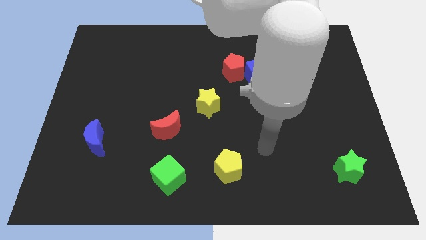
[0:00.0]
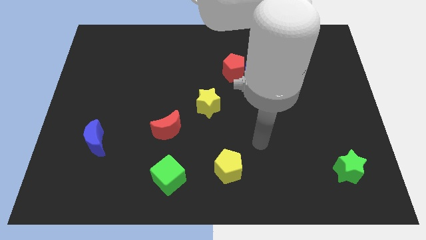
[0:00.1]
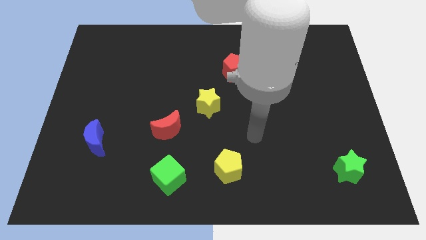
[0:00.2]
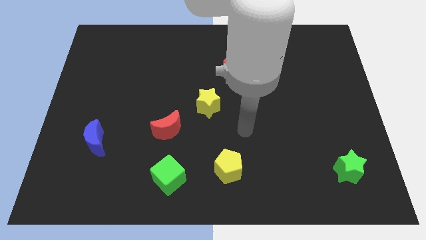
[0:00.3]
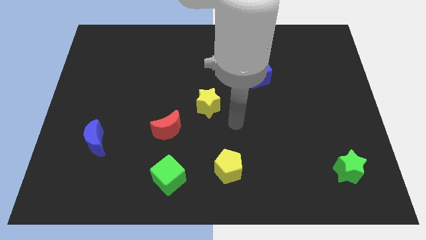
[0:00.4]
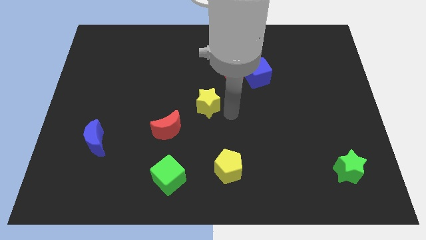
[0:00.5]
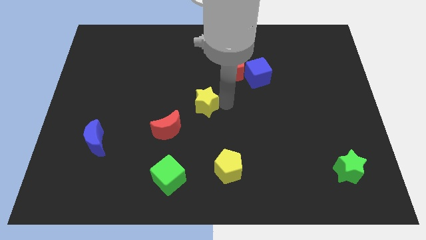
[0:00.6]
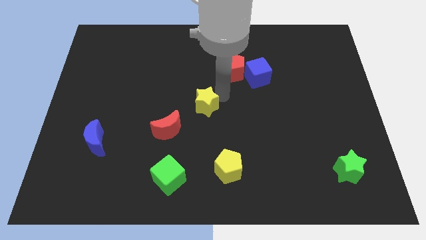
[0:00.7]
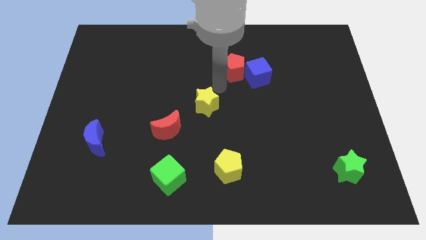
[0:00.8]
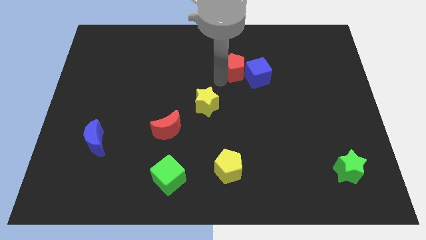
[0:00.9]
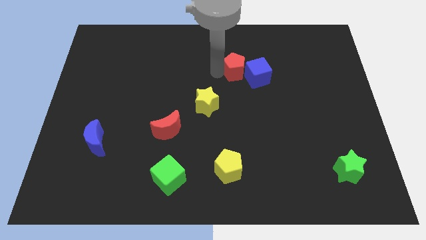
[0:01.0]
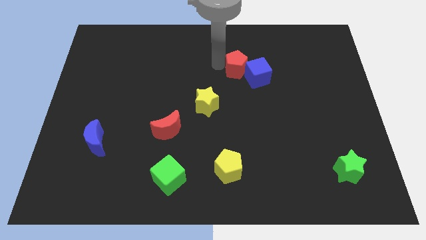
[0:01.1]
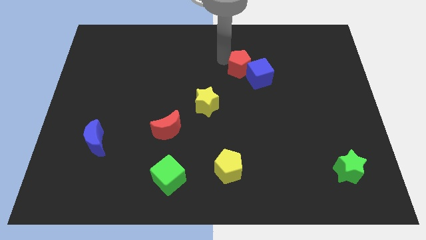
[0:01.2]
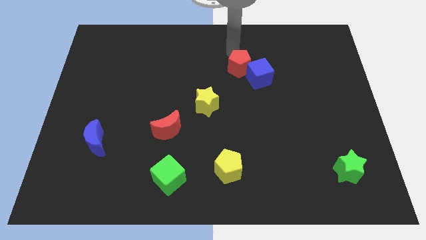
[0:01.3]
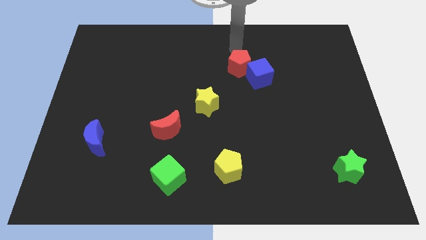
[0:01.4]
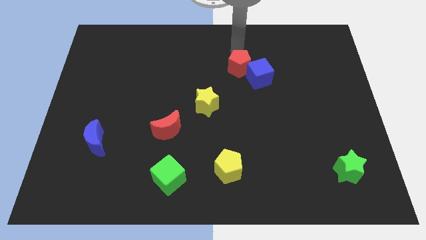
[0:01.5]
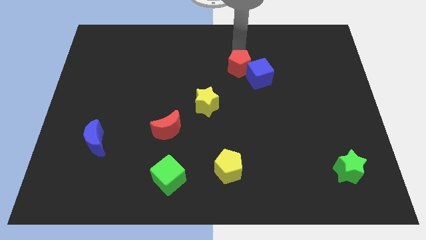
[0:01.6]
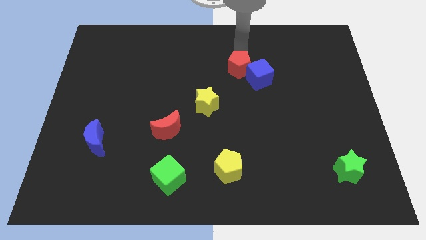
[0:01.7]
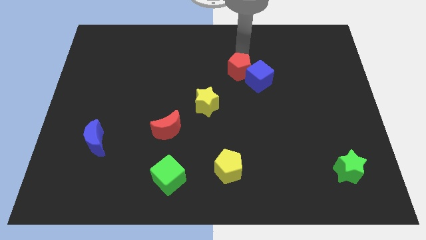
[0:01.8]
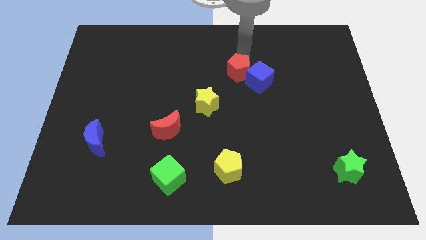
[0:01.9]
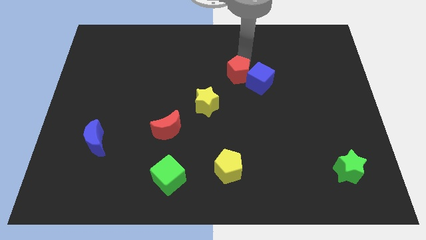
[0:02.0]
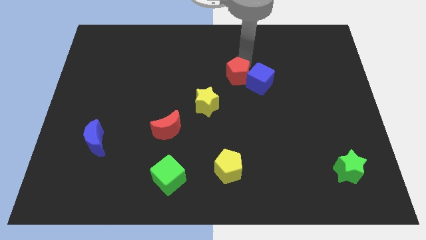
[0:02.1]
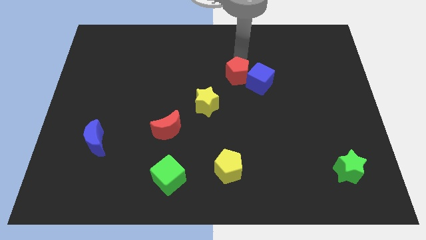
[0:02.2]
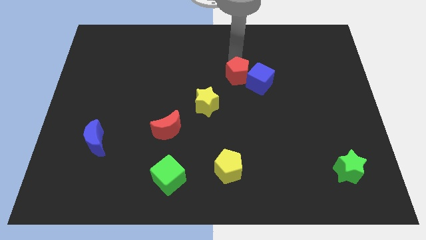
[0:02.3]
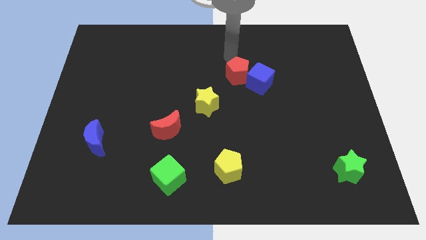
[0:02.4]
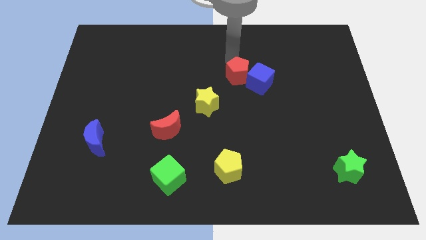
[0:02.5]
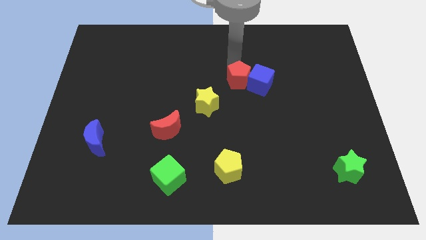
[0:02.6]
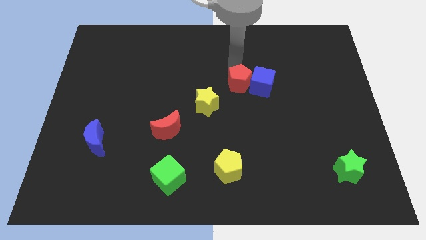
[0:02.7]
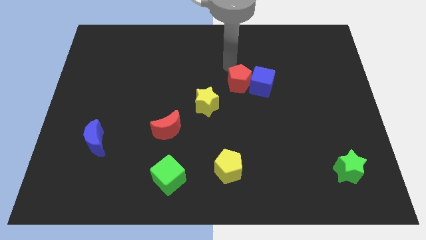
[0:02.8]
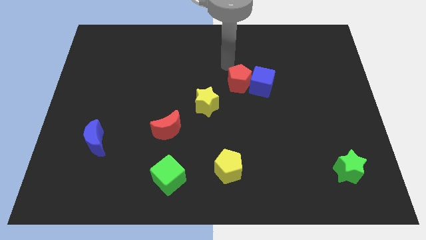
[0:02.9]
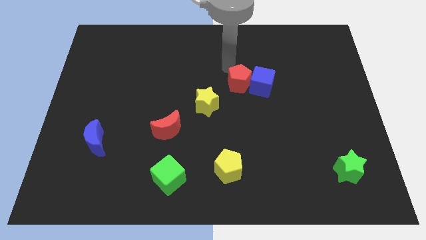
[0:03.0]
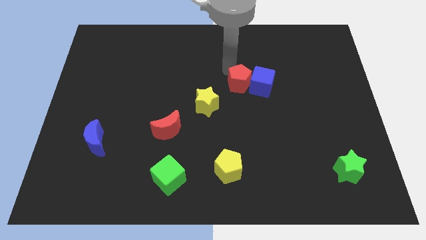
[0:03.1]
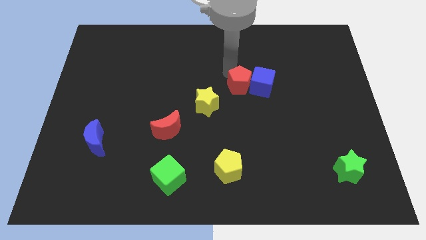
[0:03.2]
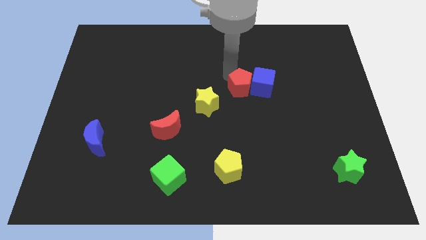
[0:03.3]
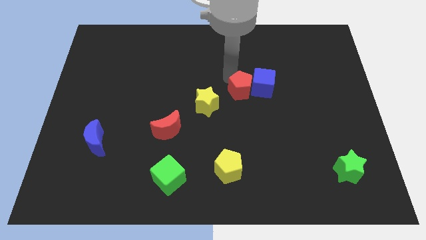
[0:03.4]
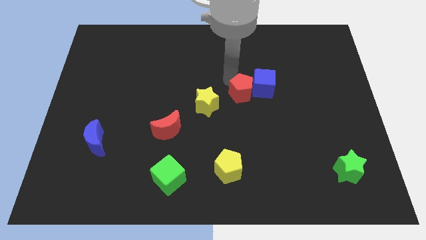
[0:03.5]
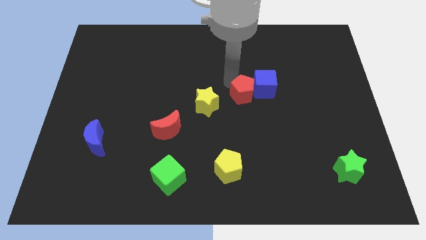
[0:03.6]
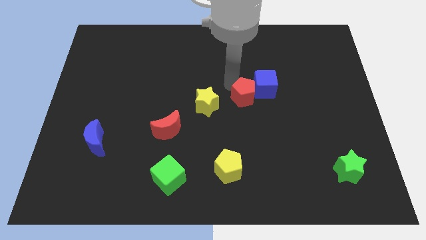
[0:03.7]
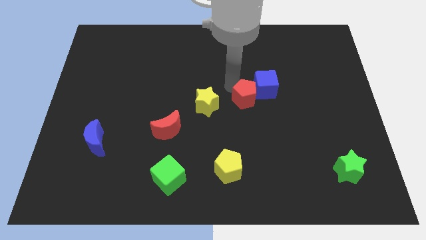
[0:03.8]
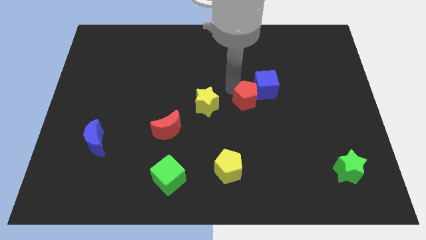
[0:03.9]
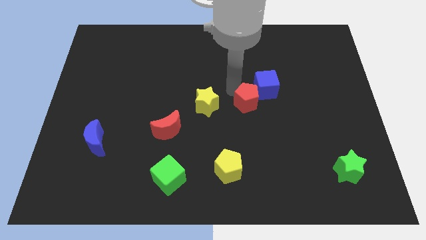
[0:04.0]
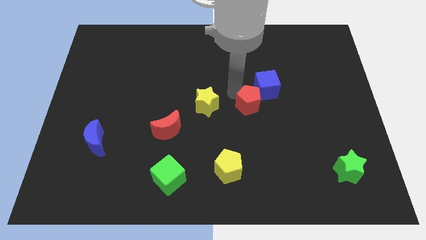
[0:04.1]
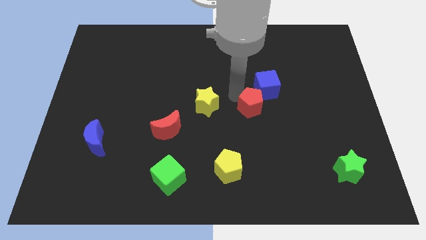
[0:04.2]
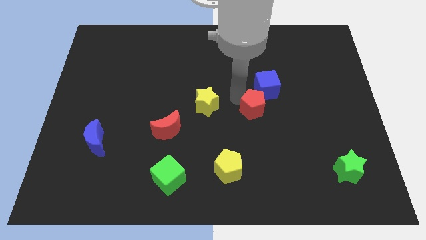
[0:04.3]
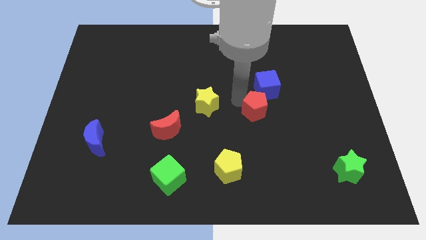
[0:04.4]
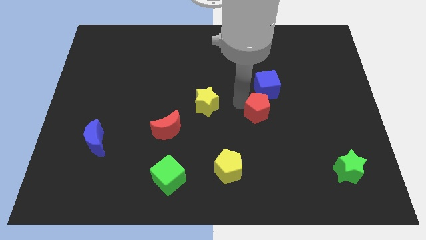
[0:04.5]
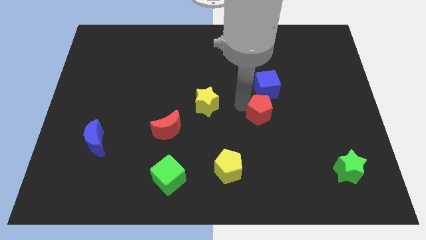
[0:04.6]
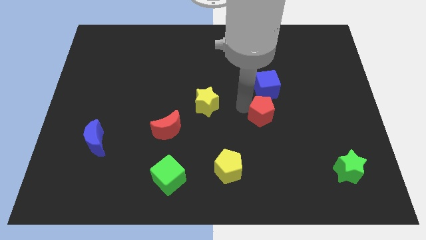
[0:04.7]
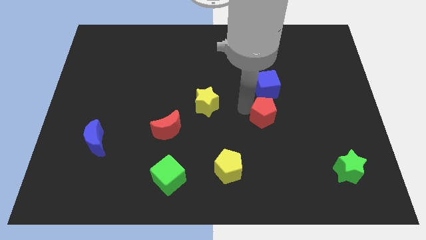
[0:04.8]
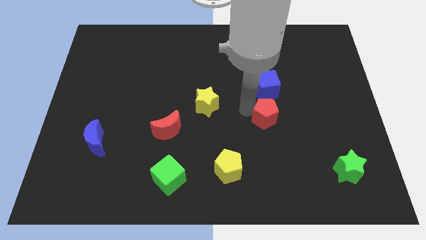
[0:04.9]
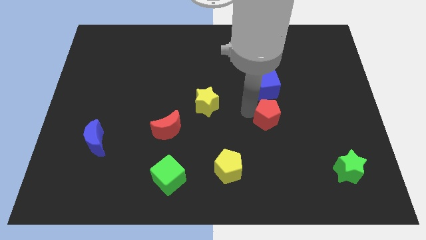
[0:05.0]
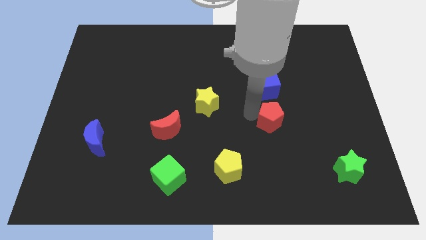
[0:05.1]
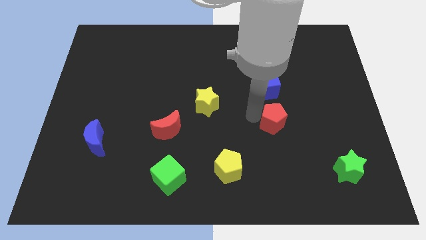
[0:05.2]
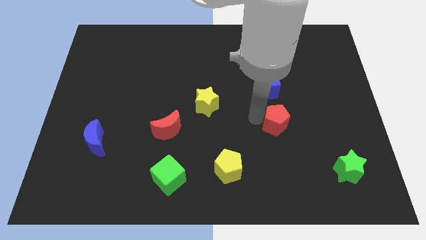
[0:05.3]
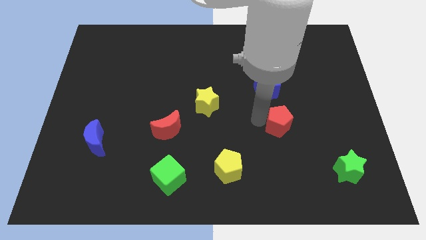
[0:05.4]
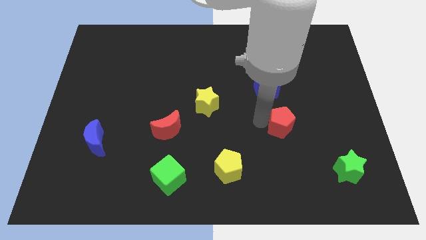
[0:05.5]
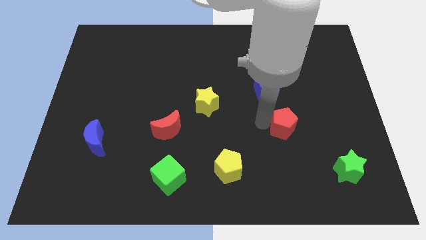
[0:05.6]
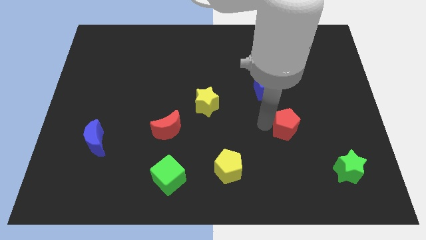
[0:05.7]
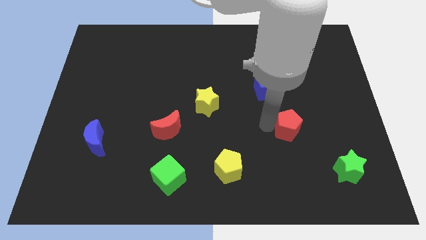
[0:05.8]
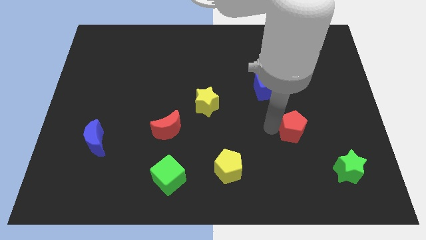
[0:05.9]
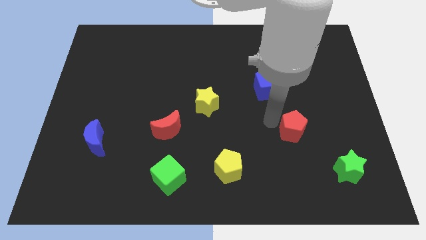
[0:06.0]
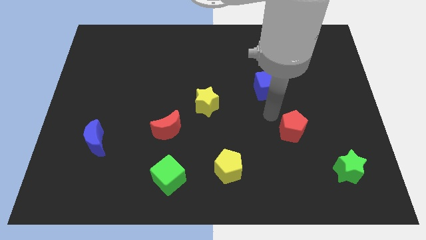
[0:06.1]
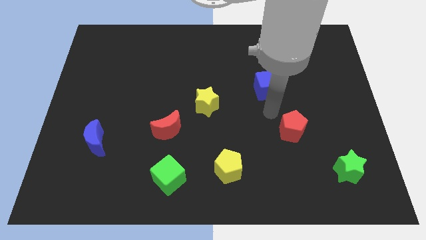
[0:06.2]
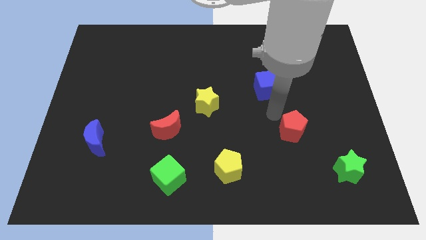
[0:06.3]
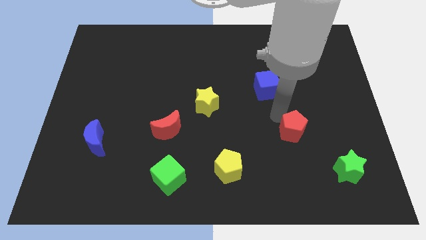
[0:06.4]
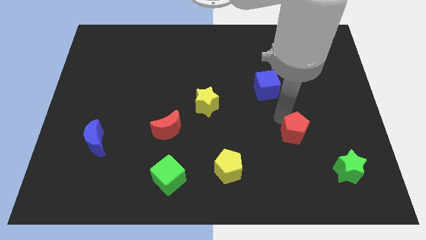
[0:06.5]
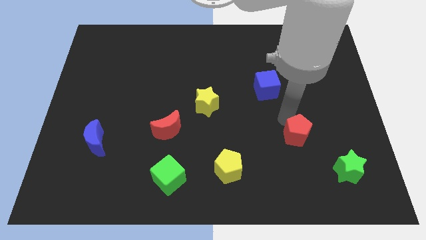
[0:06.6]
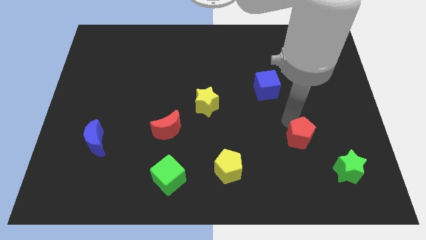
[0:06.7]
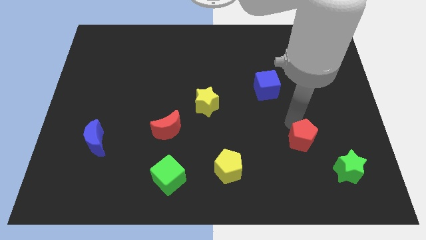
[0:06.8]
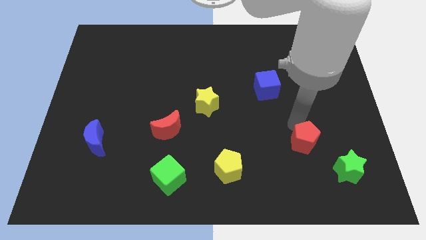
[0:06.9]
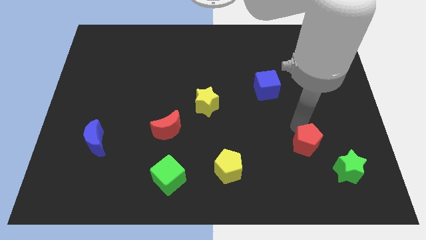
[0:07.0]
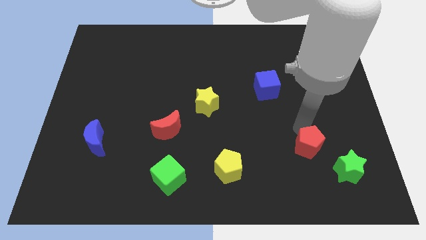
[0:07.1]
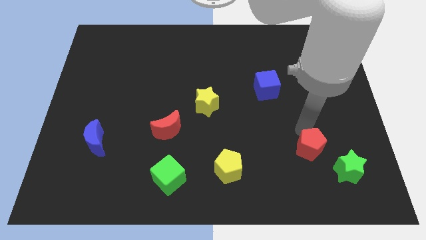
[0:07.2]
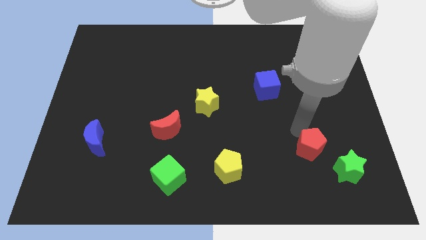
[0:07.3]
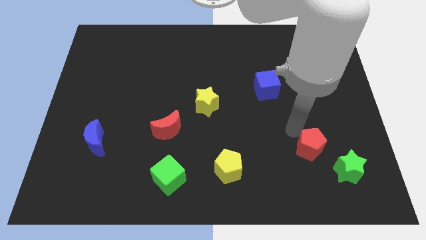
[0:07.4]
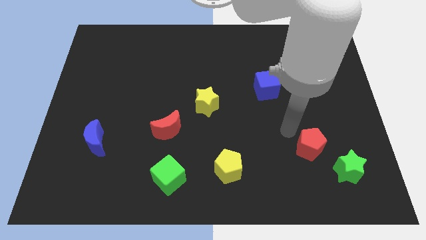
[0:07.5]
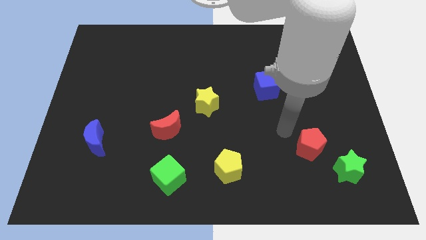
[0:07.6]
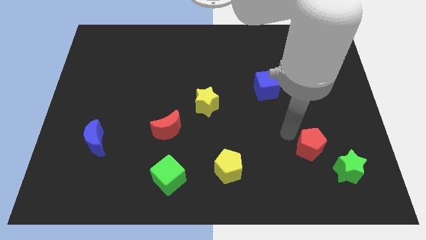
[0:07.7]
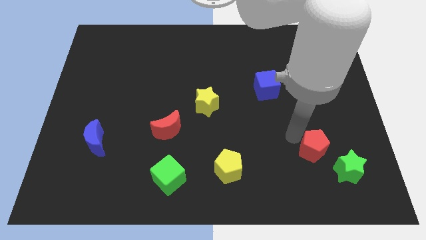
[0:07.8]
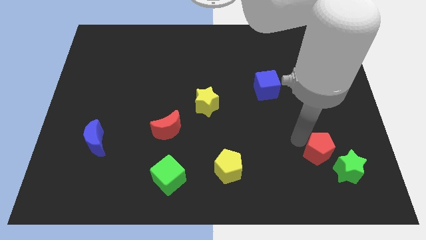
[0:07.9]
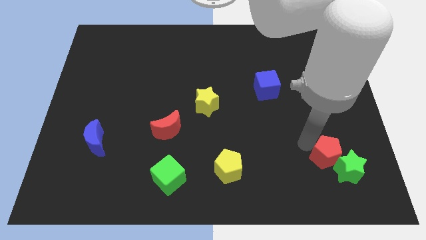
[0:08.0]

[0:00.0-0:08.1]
push the red pentagon towards the green star
